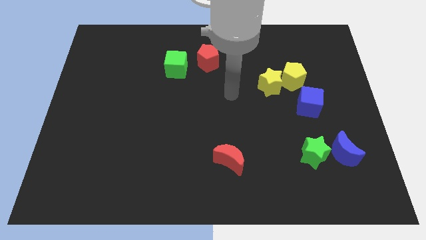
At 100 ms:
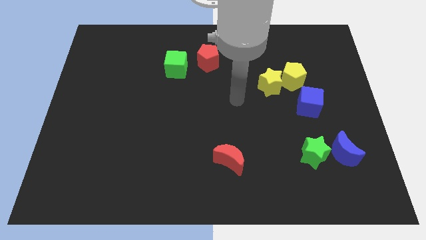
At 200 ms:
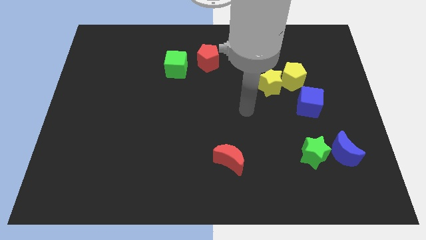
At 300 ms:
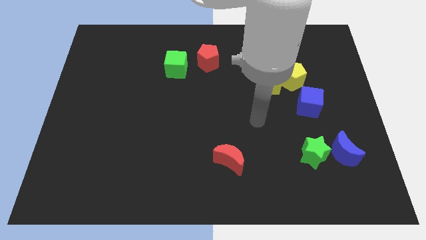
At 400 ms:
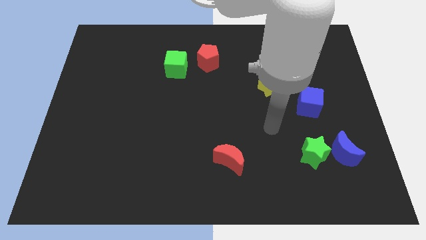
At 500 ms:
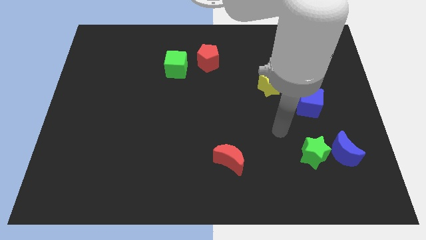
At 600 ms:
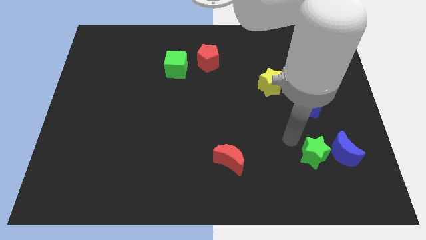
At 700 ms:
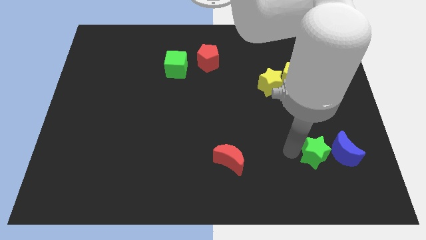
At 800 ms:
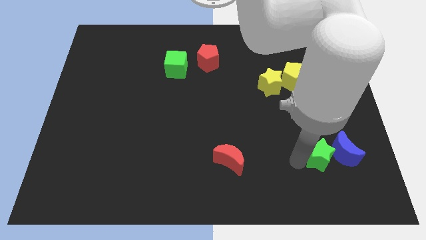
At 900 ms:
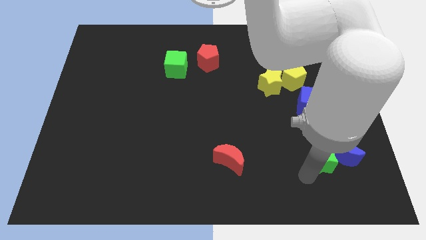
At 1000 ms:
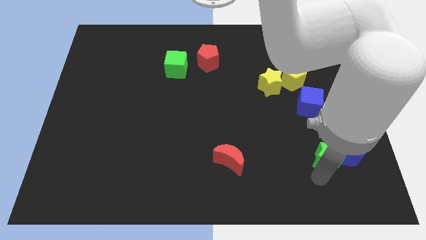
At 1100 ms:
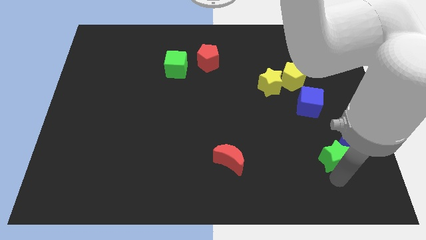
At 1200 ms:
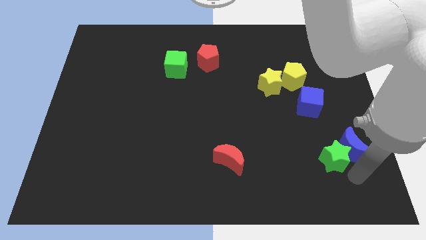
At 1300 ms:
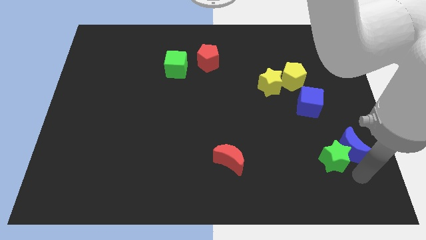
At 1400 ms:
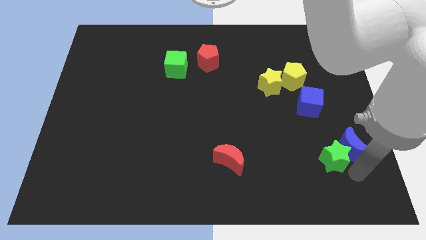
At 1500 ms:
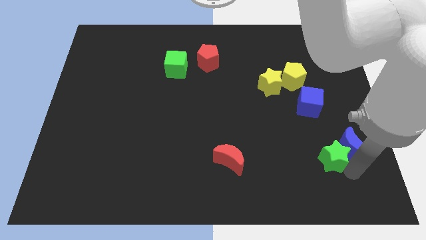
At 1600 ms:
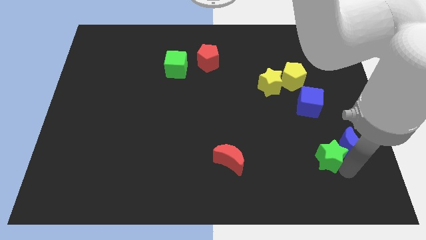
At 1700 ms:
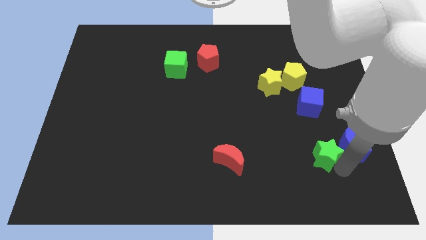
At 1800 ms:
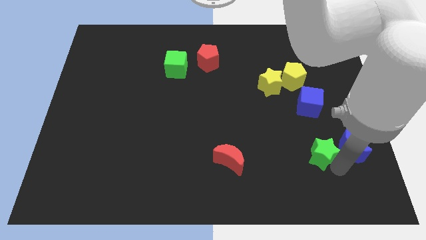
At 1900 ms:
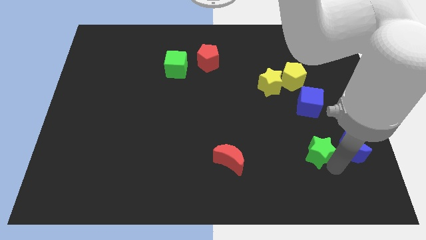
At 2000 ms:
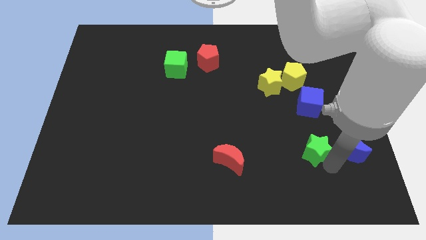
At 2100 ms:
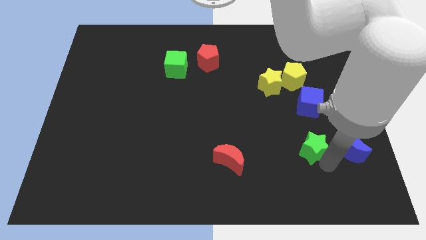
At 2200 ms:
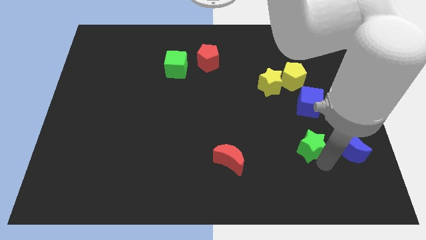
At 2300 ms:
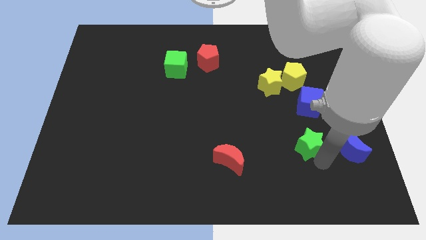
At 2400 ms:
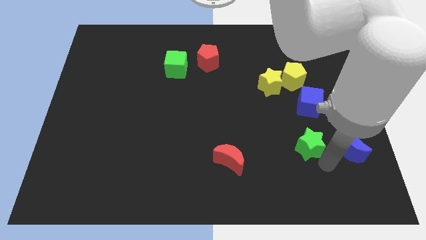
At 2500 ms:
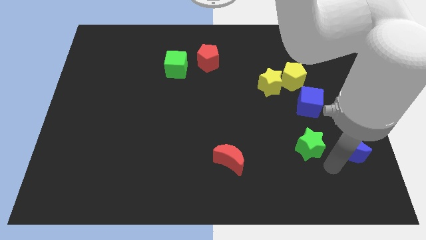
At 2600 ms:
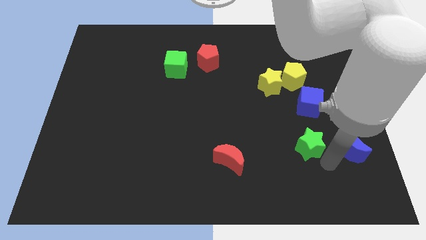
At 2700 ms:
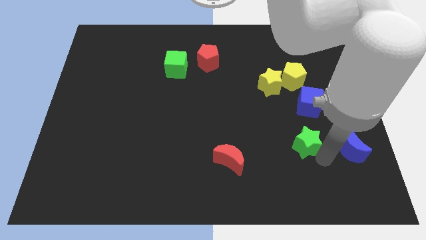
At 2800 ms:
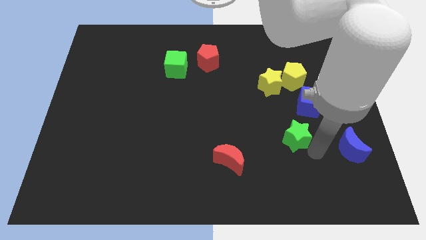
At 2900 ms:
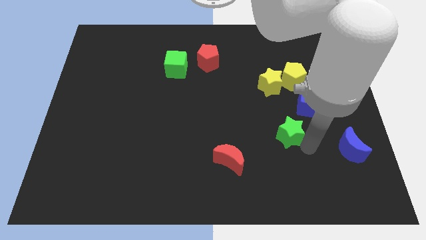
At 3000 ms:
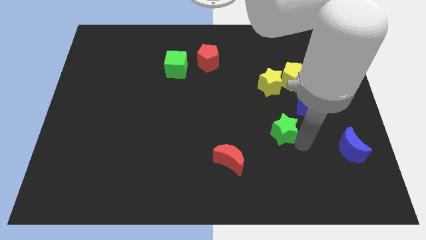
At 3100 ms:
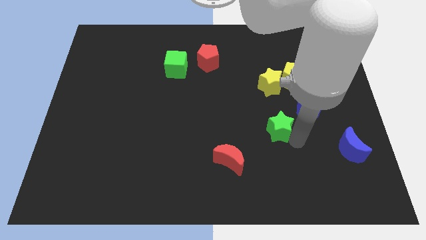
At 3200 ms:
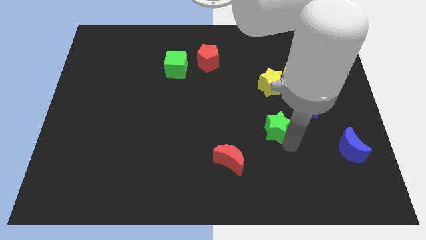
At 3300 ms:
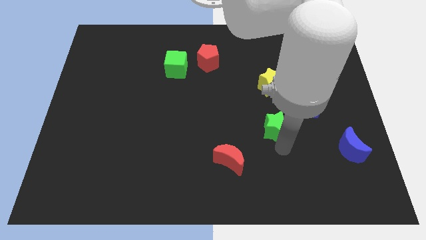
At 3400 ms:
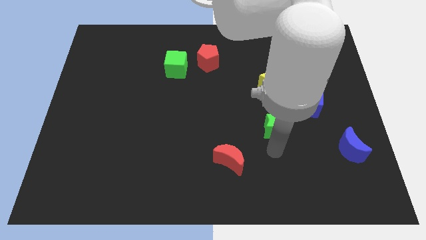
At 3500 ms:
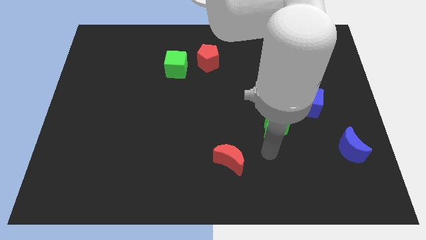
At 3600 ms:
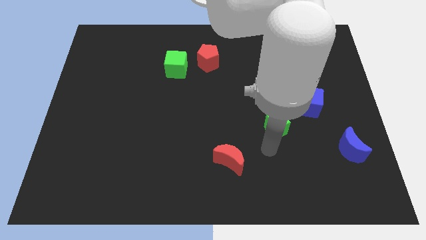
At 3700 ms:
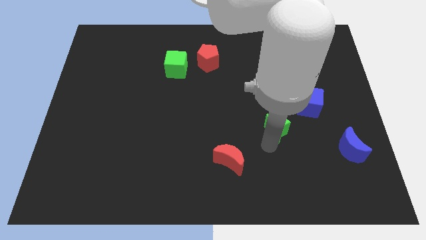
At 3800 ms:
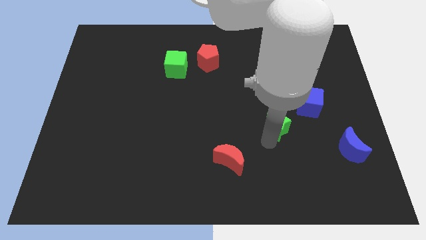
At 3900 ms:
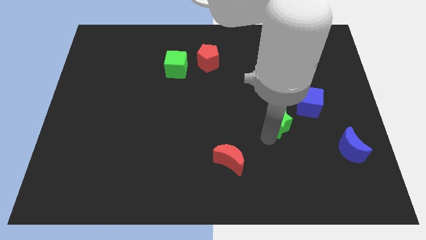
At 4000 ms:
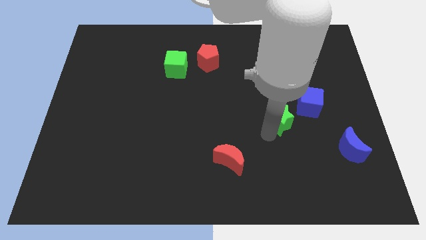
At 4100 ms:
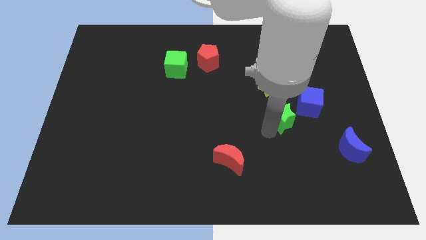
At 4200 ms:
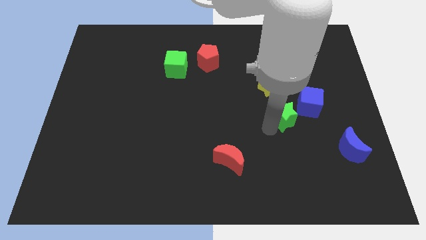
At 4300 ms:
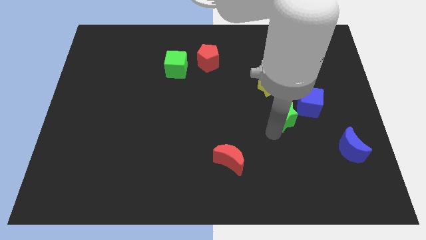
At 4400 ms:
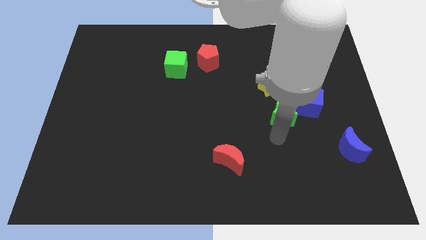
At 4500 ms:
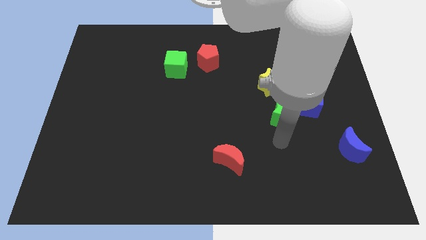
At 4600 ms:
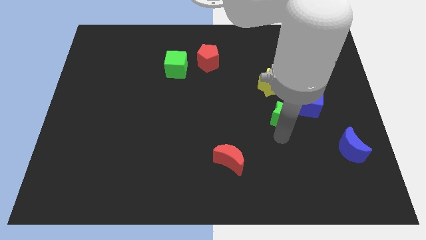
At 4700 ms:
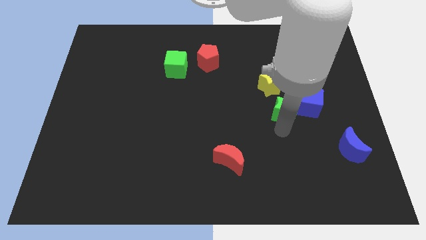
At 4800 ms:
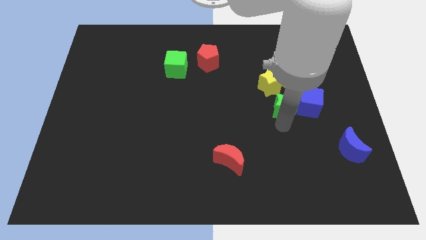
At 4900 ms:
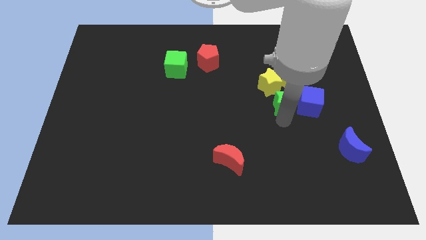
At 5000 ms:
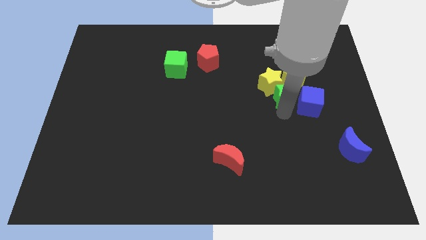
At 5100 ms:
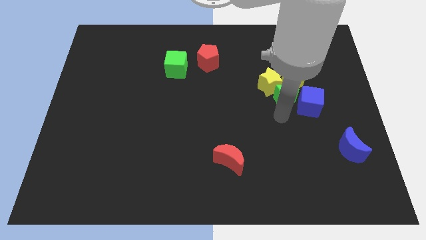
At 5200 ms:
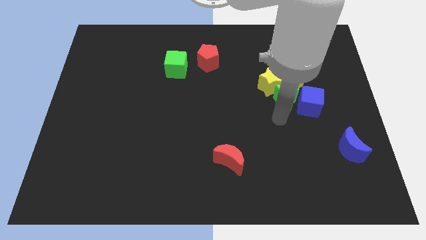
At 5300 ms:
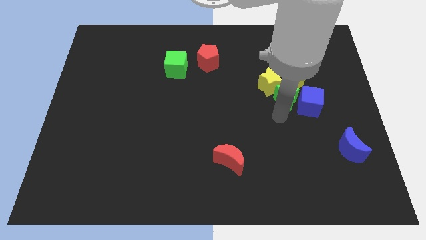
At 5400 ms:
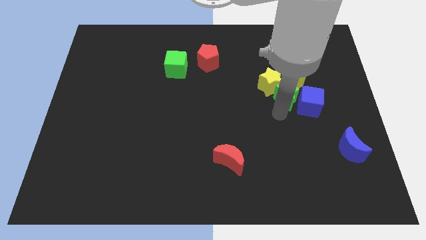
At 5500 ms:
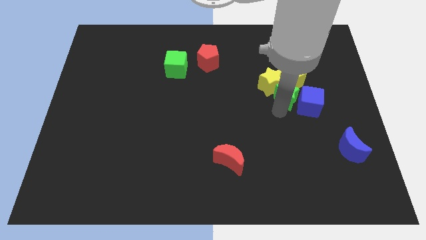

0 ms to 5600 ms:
slide the green star to the yellow pentagon

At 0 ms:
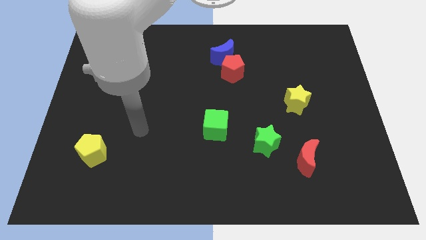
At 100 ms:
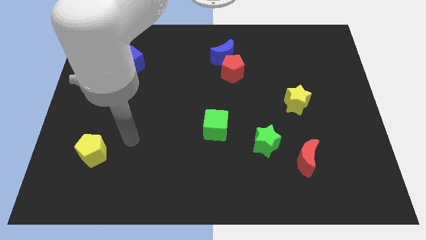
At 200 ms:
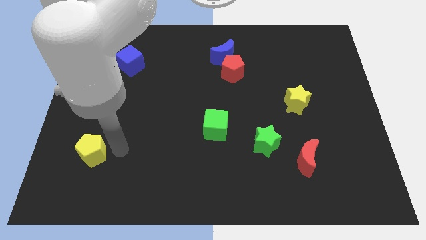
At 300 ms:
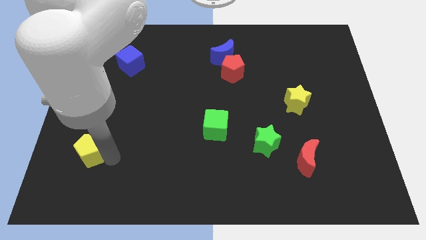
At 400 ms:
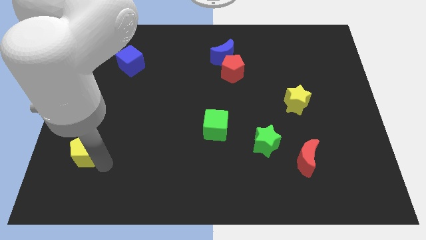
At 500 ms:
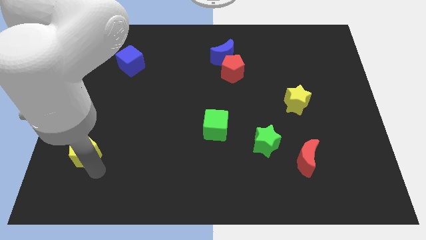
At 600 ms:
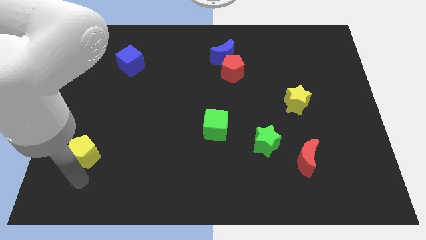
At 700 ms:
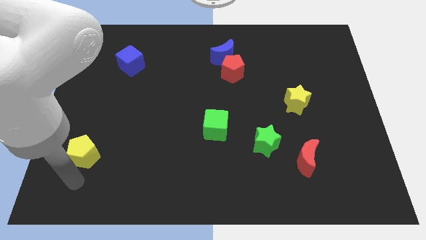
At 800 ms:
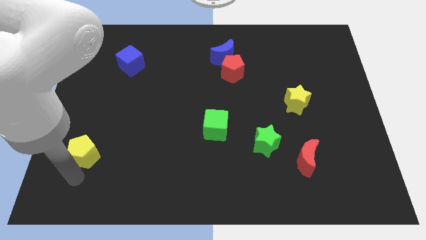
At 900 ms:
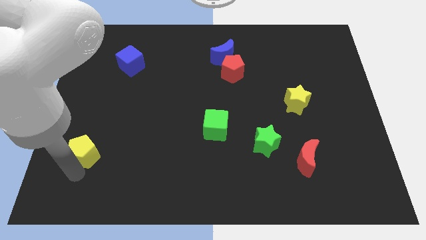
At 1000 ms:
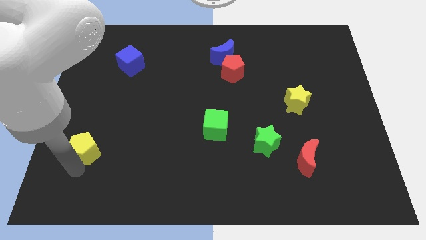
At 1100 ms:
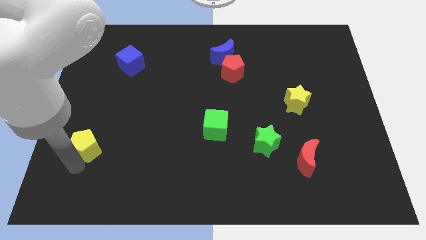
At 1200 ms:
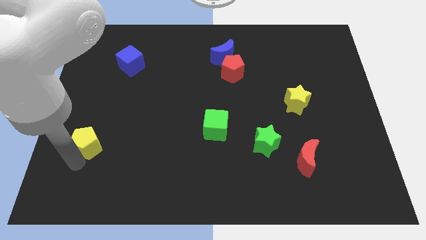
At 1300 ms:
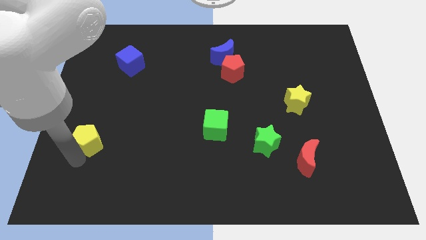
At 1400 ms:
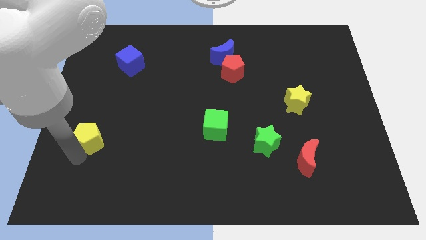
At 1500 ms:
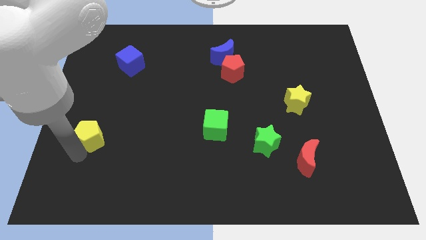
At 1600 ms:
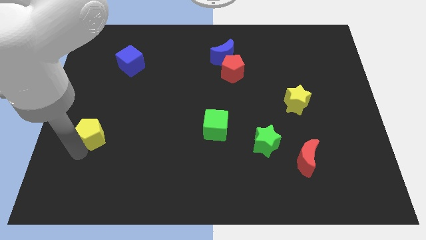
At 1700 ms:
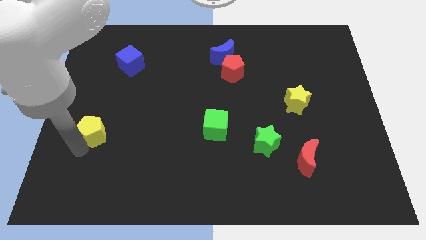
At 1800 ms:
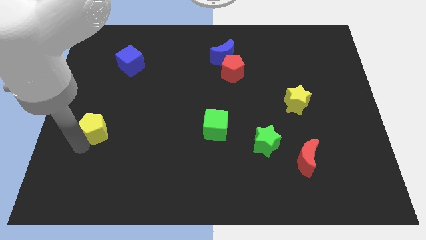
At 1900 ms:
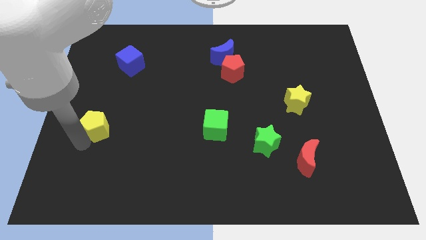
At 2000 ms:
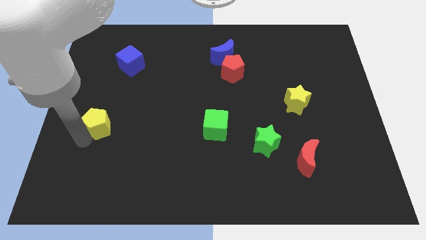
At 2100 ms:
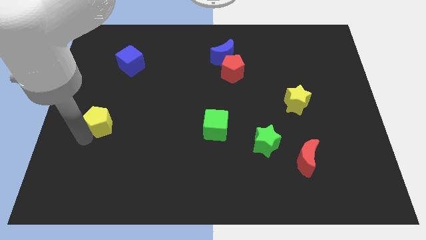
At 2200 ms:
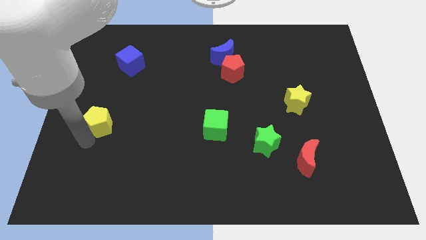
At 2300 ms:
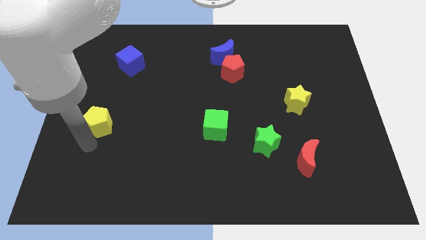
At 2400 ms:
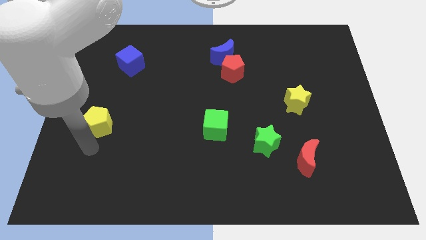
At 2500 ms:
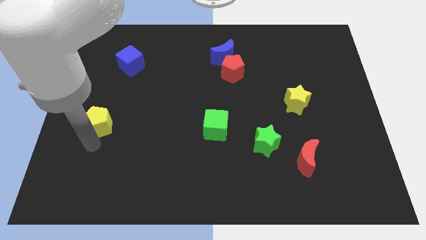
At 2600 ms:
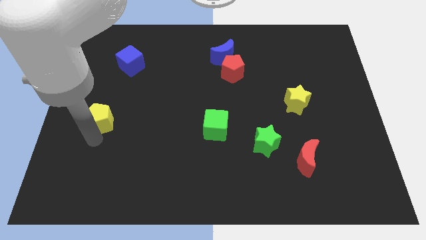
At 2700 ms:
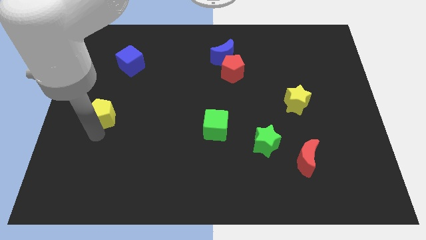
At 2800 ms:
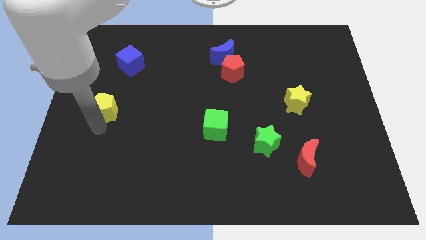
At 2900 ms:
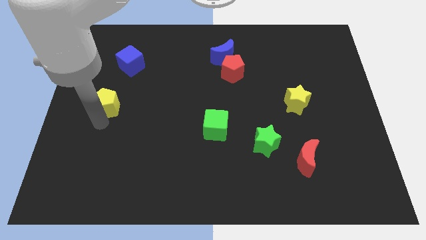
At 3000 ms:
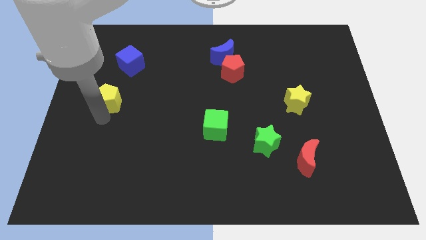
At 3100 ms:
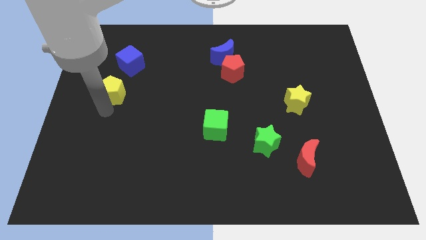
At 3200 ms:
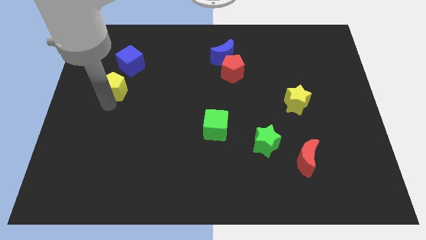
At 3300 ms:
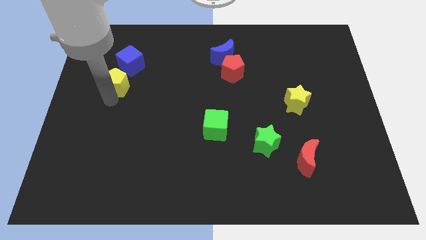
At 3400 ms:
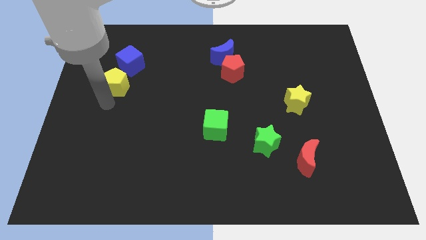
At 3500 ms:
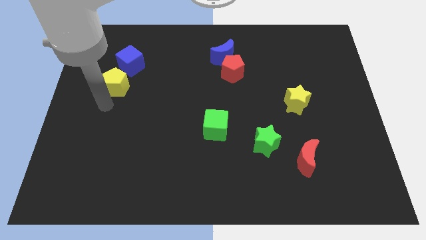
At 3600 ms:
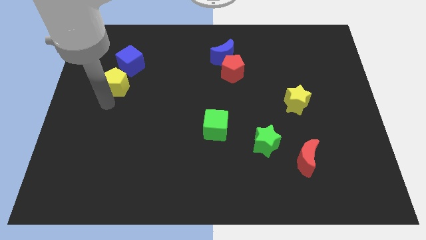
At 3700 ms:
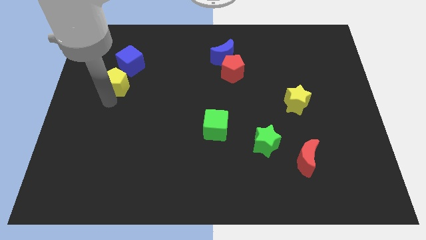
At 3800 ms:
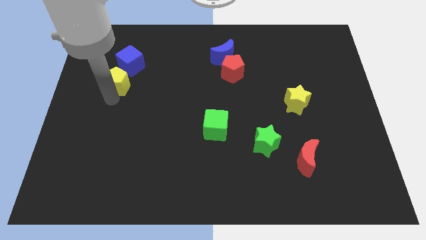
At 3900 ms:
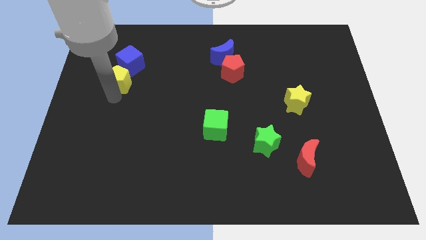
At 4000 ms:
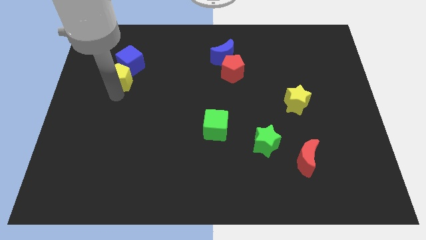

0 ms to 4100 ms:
slide the yellow pentagon next to the blue cube
